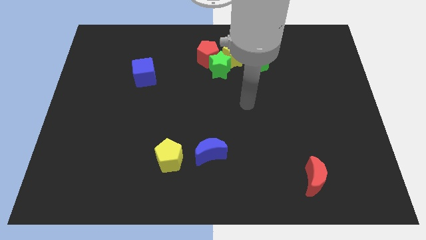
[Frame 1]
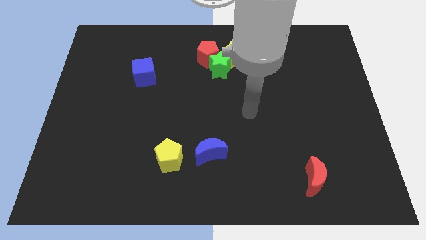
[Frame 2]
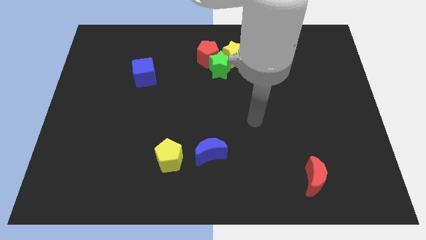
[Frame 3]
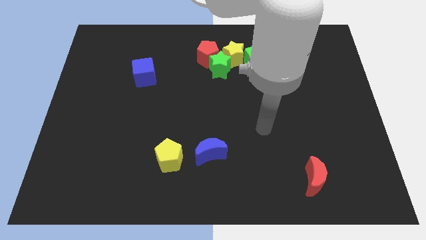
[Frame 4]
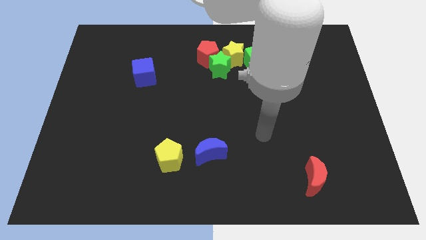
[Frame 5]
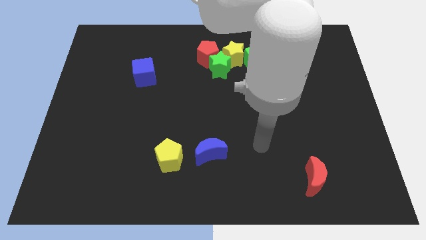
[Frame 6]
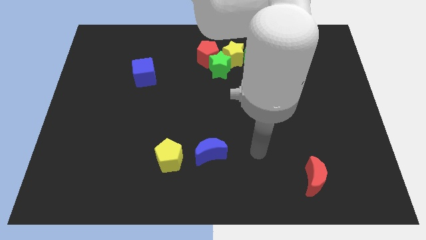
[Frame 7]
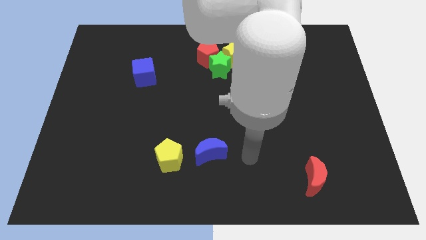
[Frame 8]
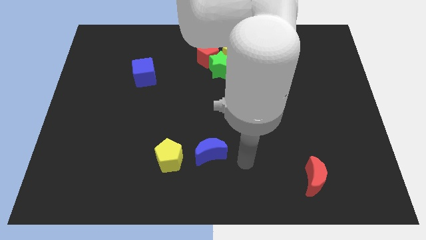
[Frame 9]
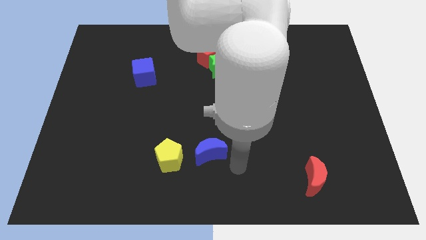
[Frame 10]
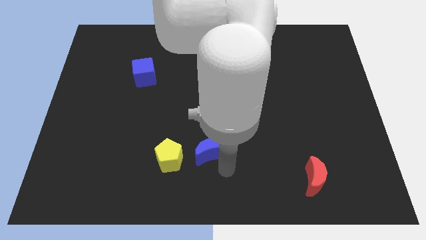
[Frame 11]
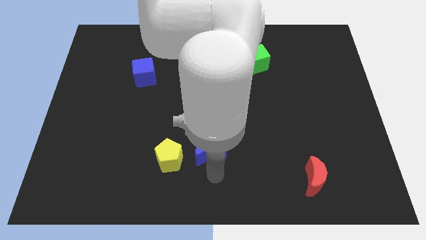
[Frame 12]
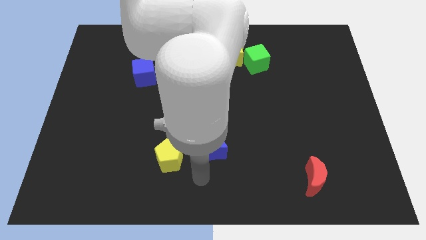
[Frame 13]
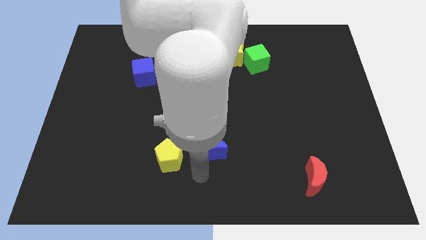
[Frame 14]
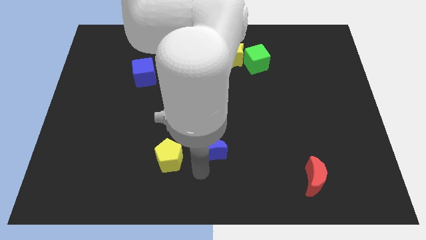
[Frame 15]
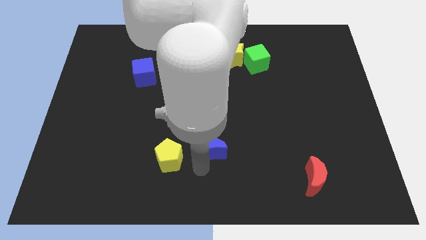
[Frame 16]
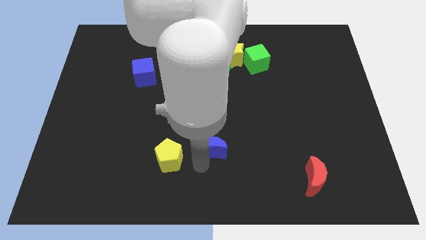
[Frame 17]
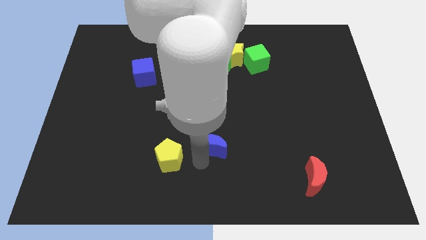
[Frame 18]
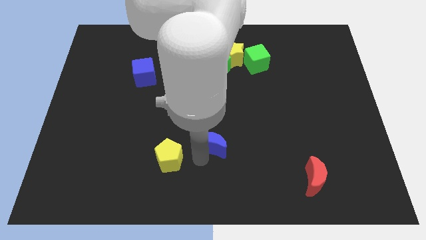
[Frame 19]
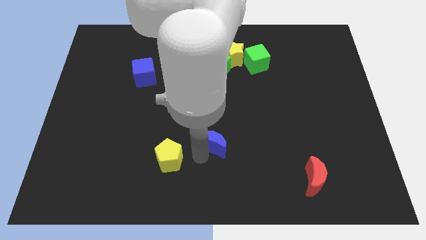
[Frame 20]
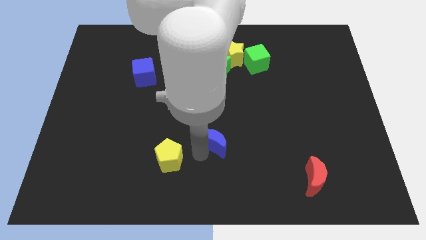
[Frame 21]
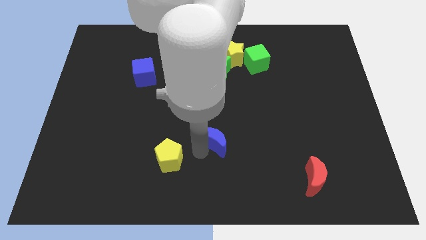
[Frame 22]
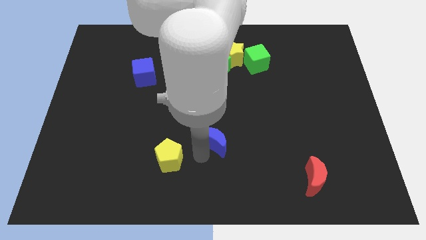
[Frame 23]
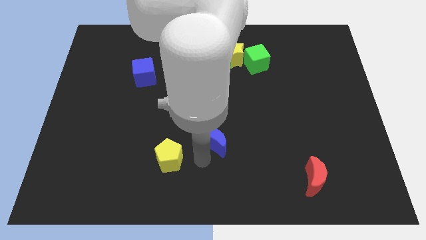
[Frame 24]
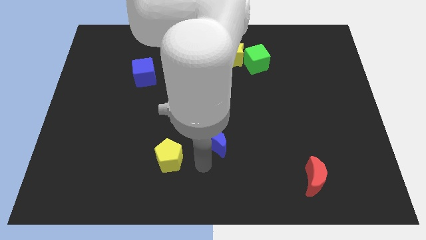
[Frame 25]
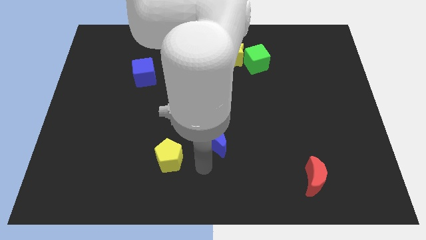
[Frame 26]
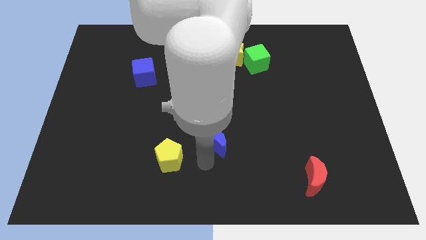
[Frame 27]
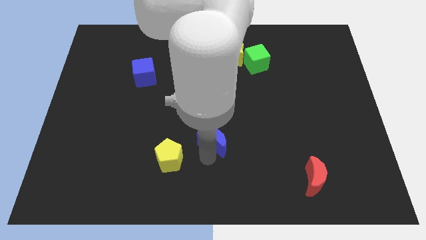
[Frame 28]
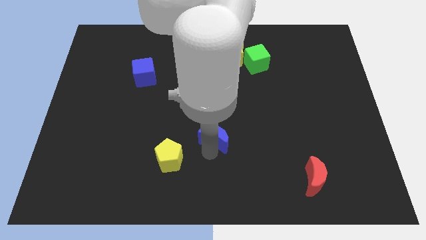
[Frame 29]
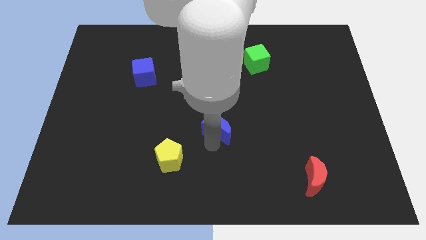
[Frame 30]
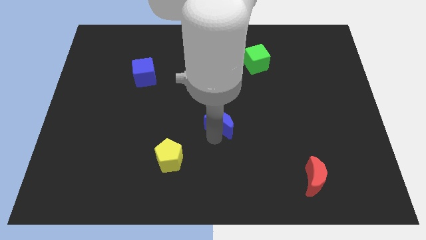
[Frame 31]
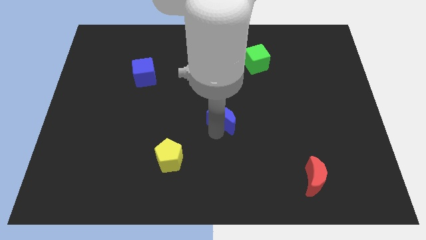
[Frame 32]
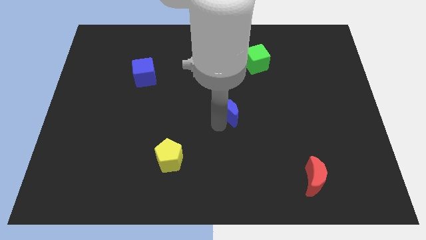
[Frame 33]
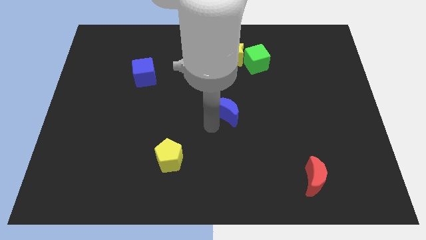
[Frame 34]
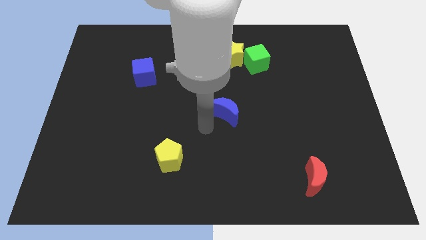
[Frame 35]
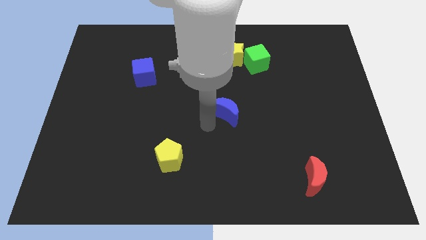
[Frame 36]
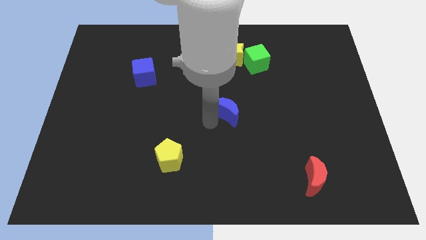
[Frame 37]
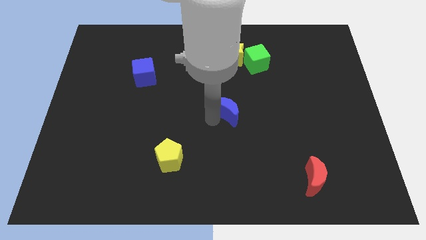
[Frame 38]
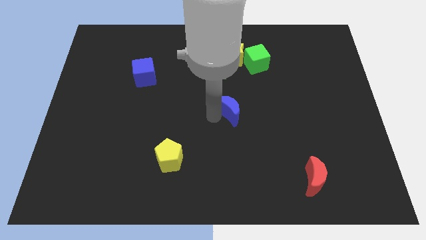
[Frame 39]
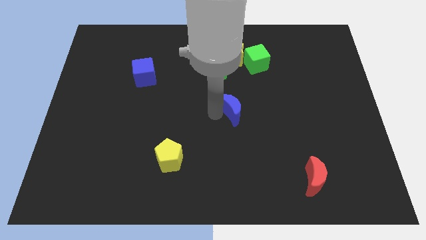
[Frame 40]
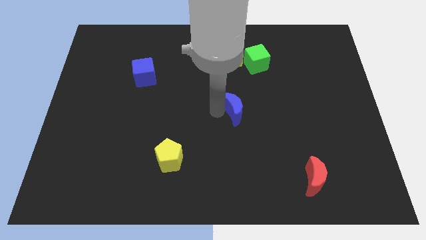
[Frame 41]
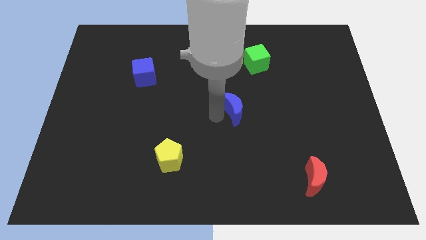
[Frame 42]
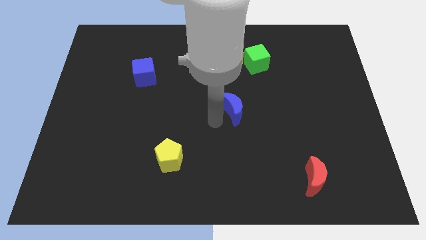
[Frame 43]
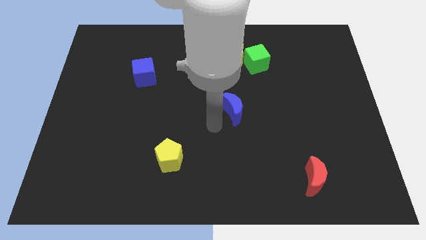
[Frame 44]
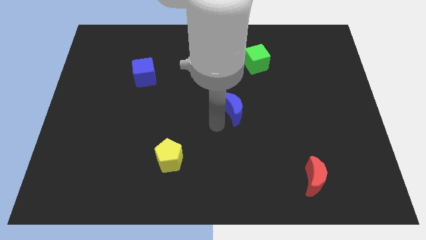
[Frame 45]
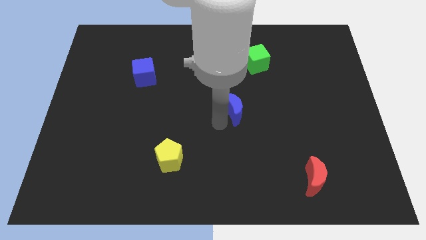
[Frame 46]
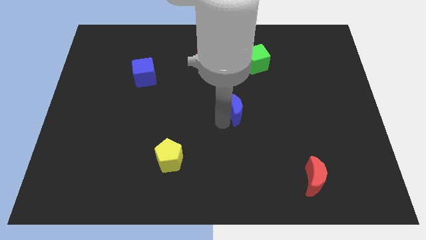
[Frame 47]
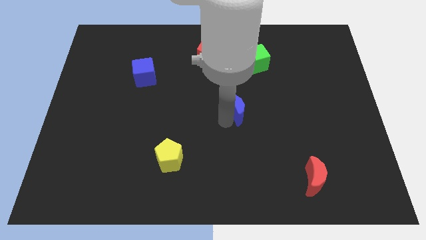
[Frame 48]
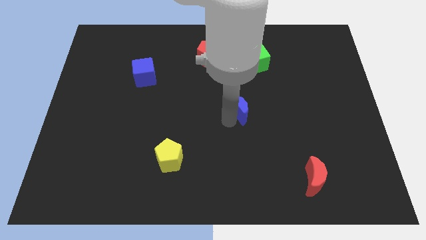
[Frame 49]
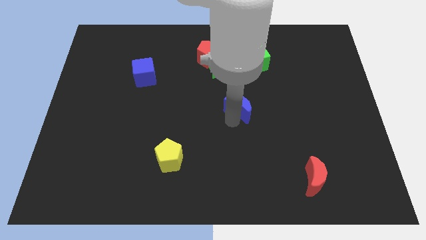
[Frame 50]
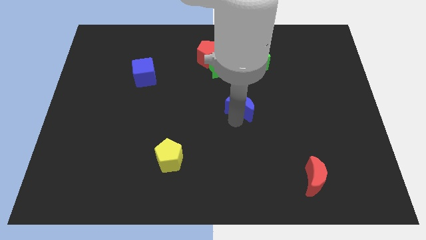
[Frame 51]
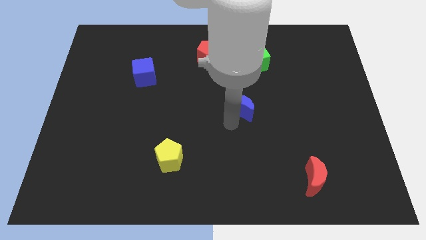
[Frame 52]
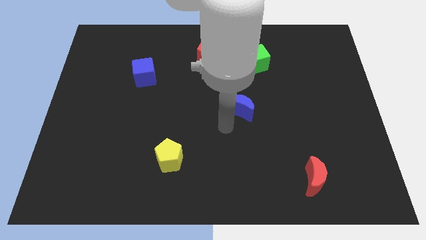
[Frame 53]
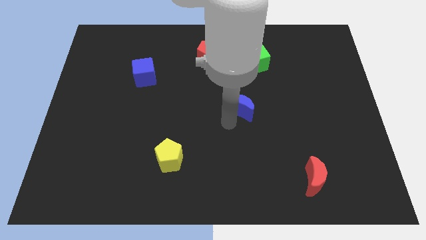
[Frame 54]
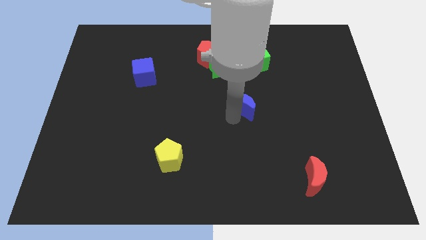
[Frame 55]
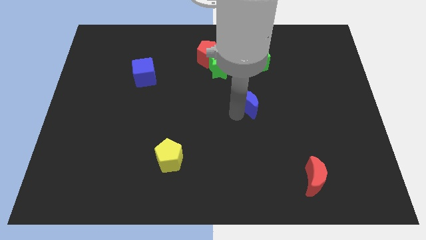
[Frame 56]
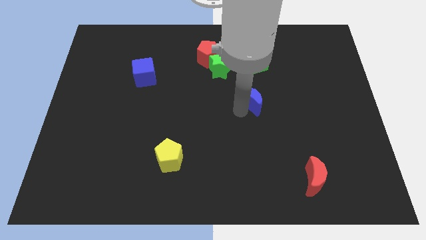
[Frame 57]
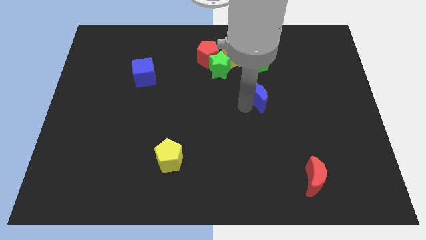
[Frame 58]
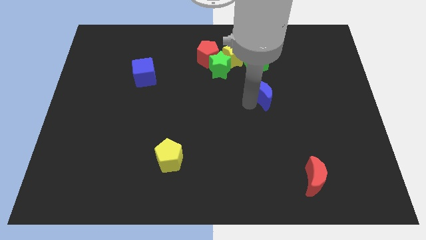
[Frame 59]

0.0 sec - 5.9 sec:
slide the blue moon up and right

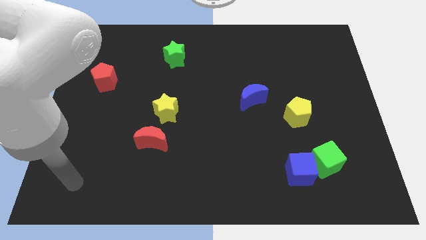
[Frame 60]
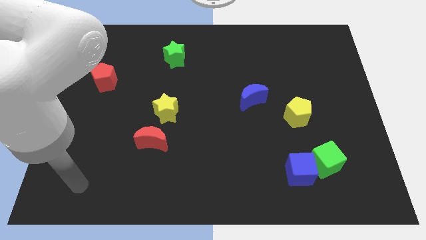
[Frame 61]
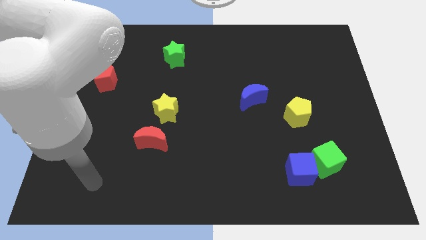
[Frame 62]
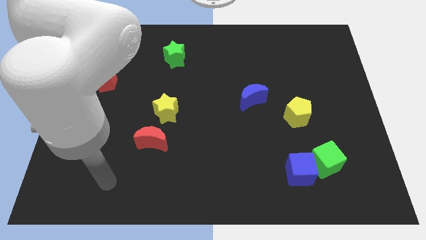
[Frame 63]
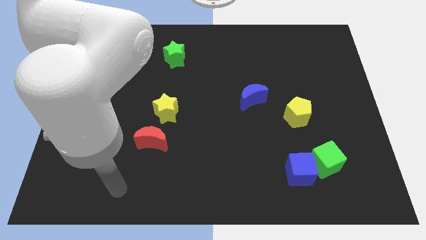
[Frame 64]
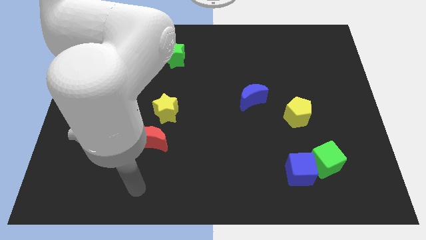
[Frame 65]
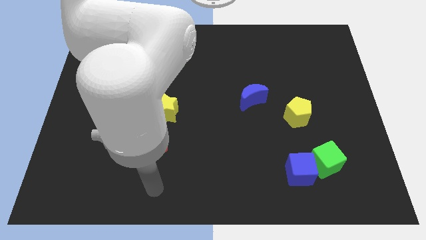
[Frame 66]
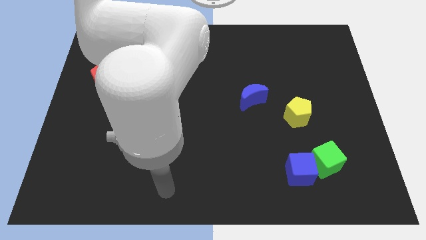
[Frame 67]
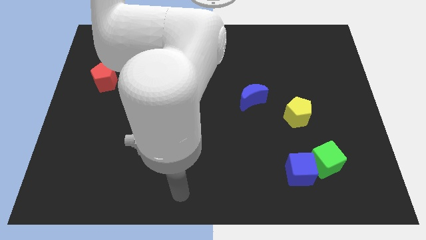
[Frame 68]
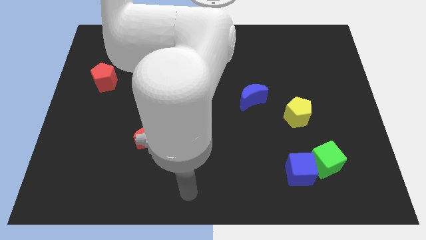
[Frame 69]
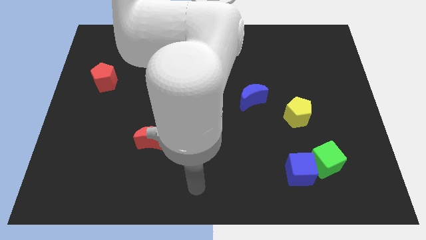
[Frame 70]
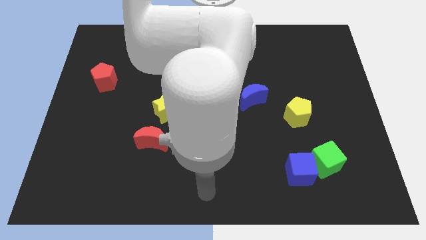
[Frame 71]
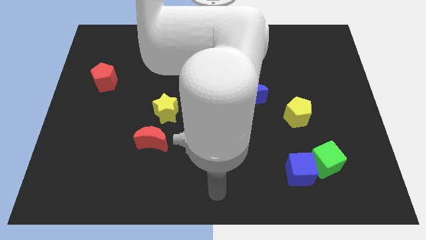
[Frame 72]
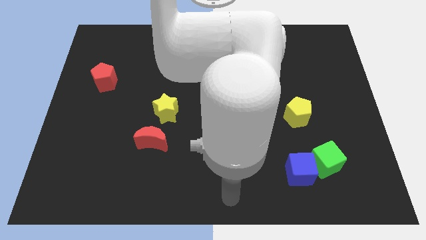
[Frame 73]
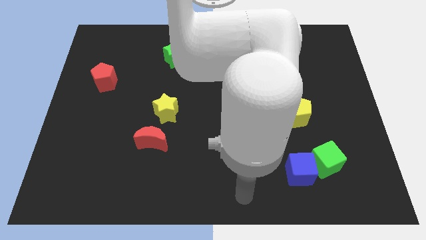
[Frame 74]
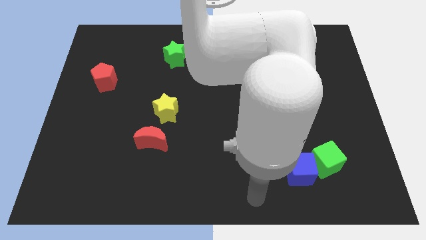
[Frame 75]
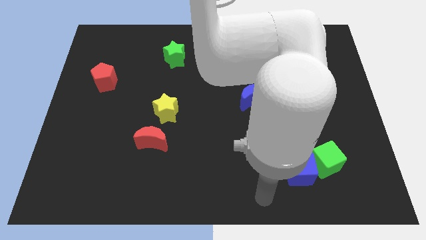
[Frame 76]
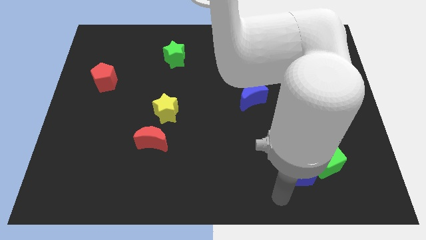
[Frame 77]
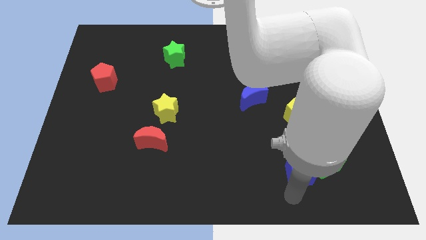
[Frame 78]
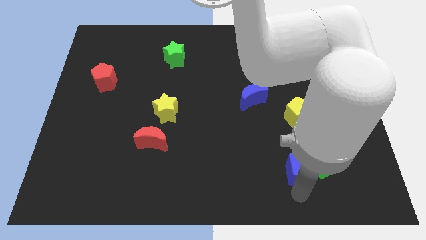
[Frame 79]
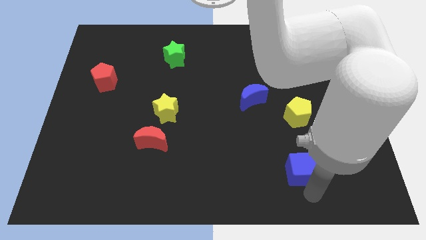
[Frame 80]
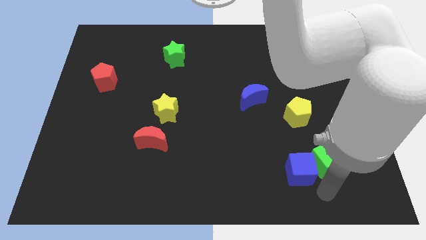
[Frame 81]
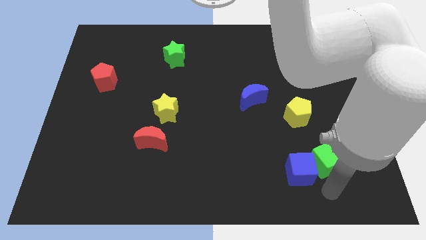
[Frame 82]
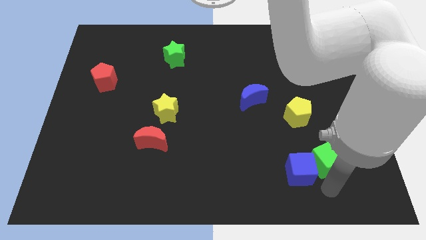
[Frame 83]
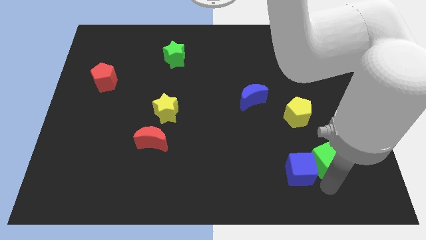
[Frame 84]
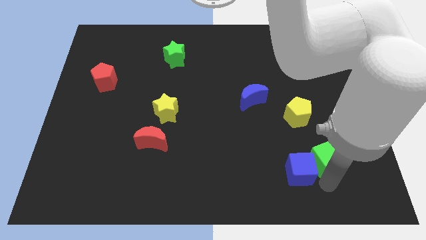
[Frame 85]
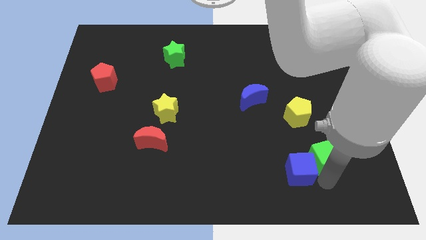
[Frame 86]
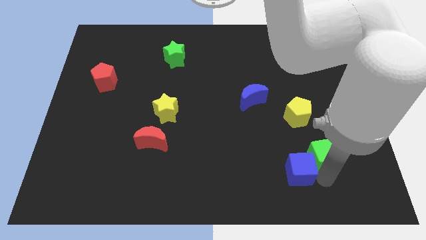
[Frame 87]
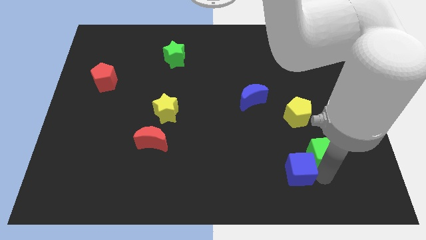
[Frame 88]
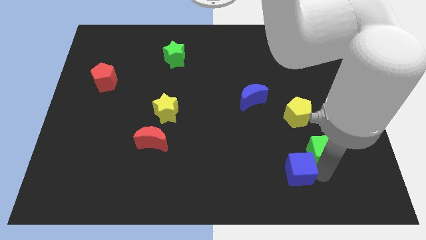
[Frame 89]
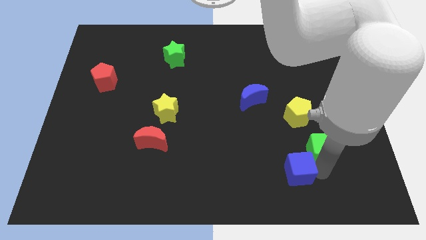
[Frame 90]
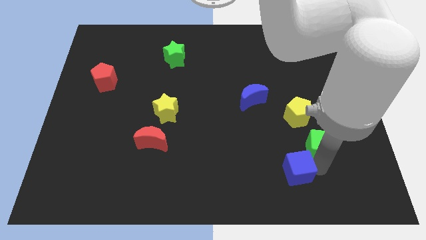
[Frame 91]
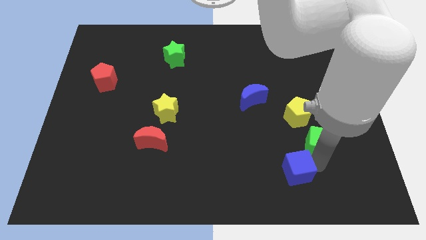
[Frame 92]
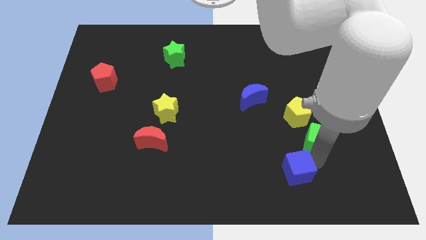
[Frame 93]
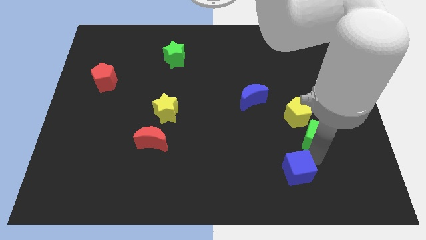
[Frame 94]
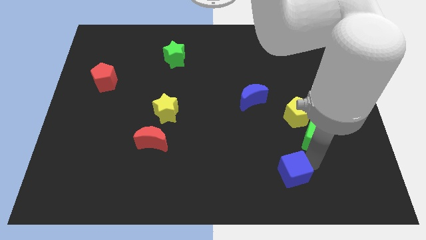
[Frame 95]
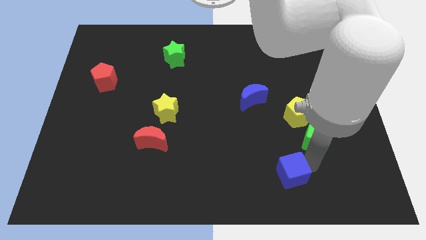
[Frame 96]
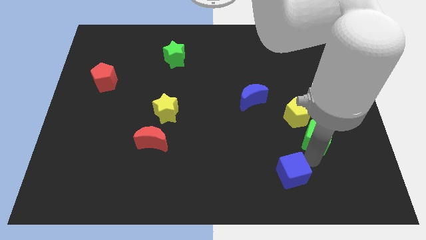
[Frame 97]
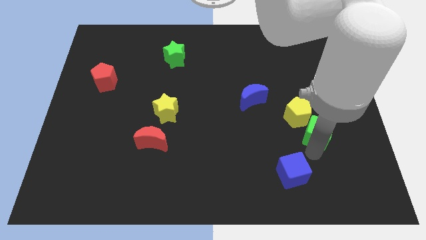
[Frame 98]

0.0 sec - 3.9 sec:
move the green cube a bit up
